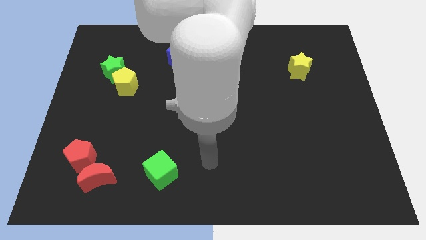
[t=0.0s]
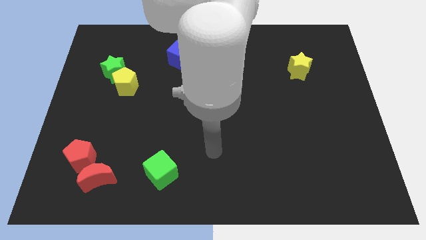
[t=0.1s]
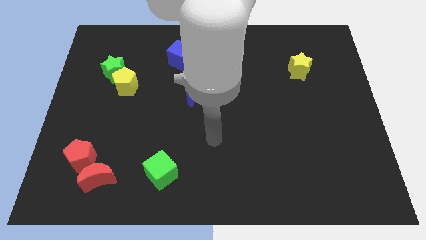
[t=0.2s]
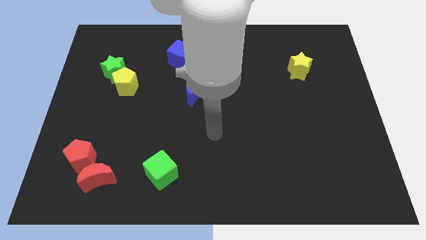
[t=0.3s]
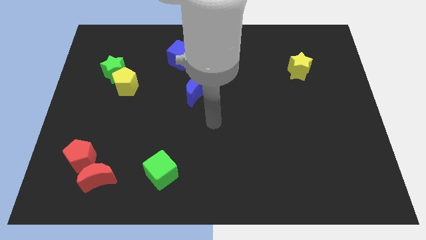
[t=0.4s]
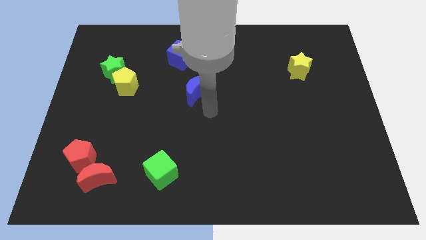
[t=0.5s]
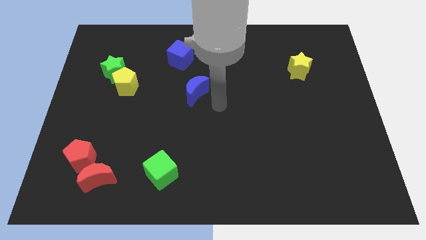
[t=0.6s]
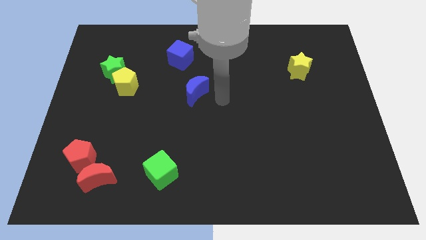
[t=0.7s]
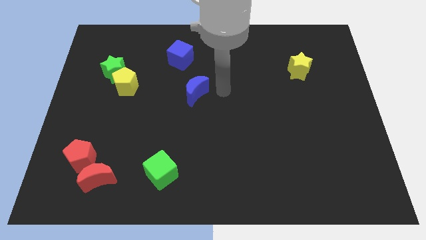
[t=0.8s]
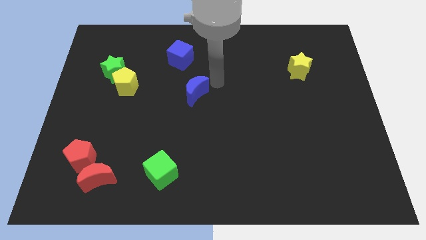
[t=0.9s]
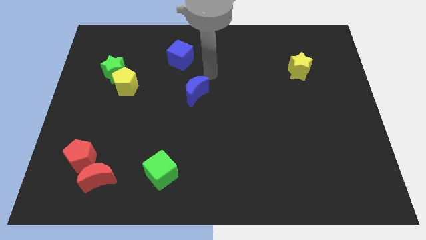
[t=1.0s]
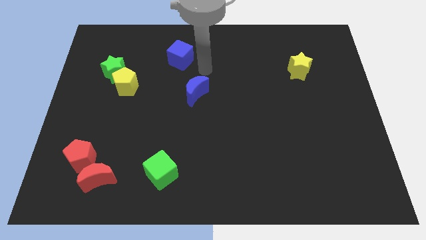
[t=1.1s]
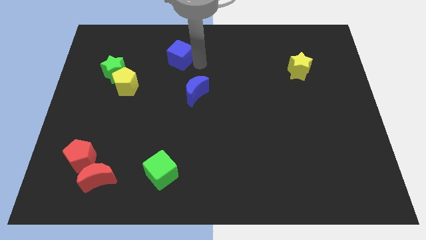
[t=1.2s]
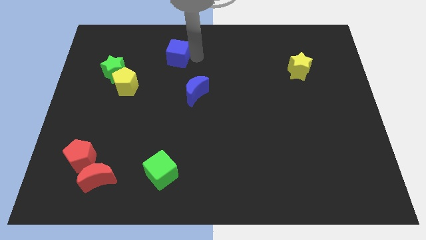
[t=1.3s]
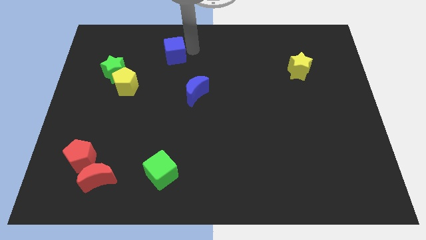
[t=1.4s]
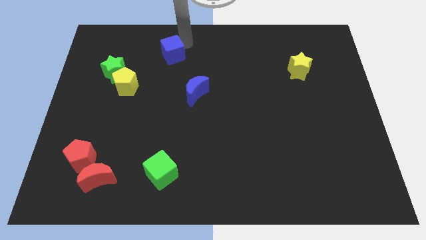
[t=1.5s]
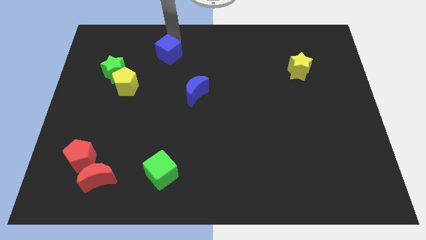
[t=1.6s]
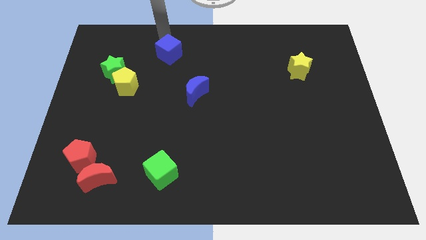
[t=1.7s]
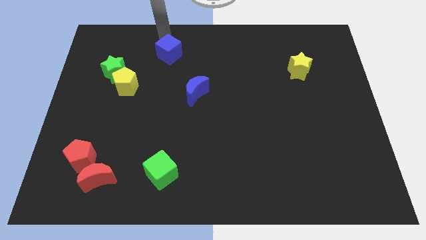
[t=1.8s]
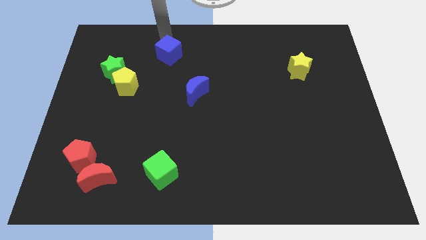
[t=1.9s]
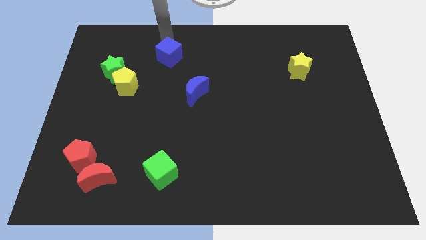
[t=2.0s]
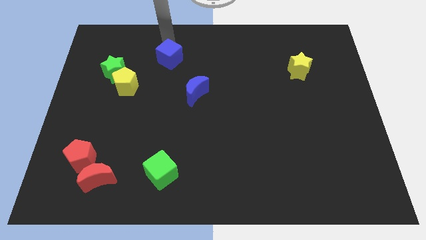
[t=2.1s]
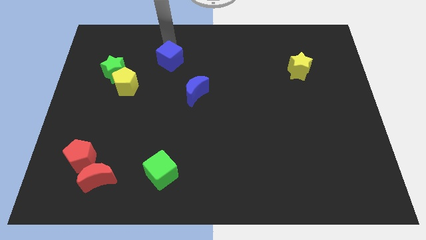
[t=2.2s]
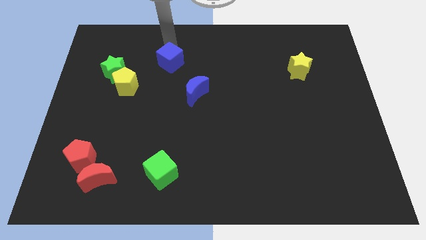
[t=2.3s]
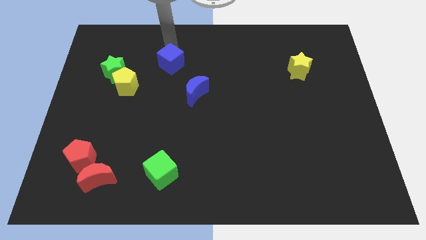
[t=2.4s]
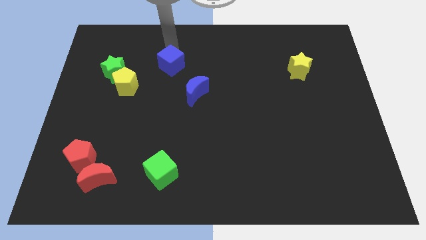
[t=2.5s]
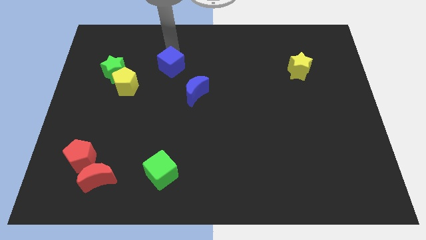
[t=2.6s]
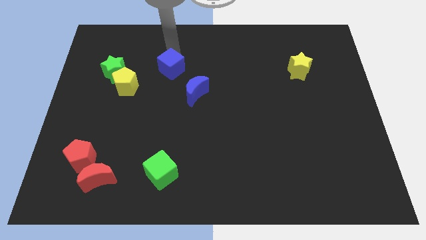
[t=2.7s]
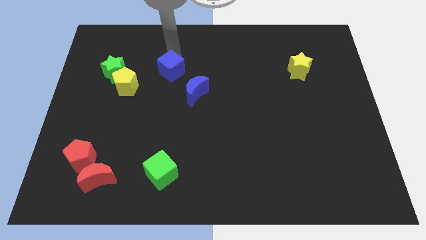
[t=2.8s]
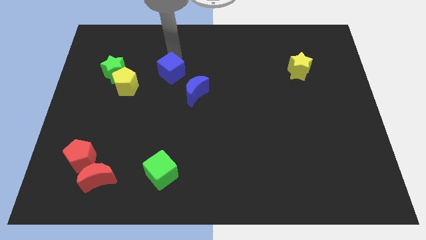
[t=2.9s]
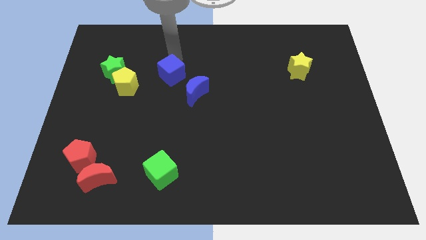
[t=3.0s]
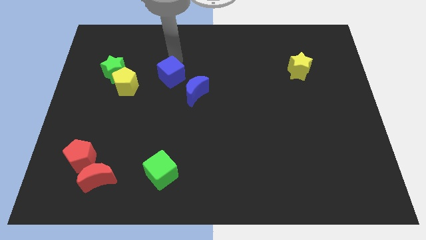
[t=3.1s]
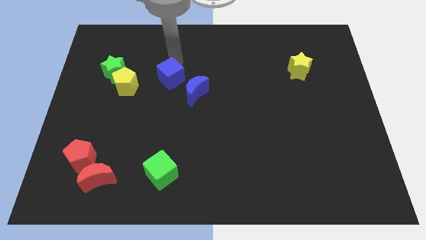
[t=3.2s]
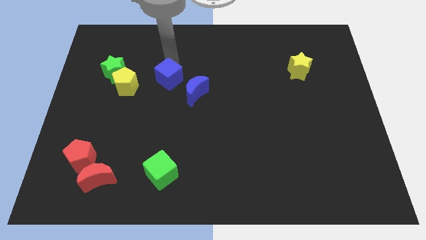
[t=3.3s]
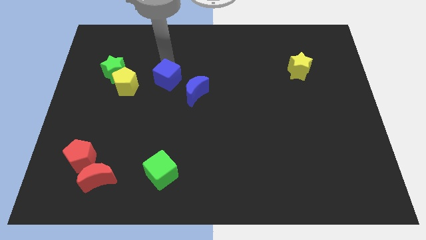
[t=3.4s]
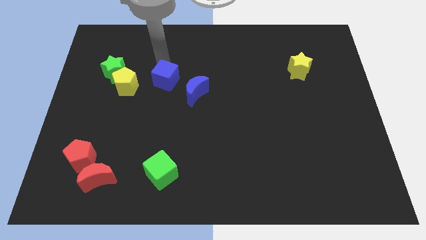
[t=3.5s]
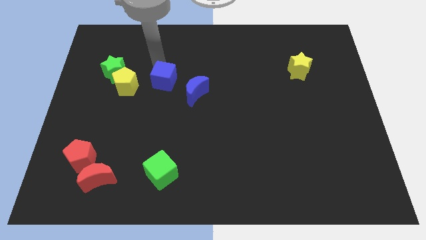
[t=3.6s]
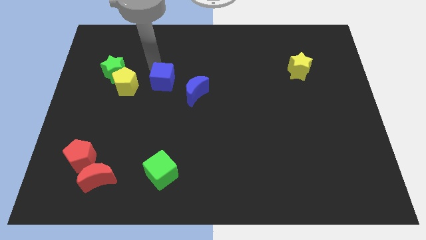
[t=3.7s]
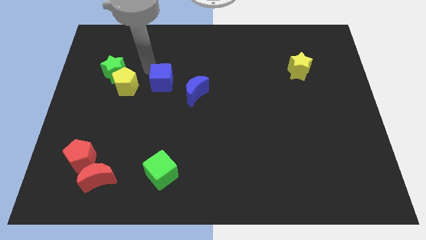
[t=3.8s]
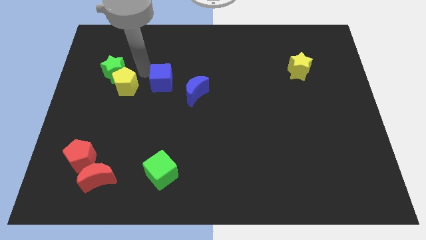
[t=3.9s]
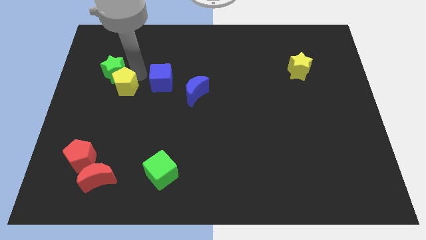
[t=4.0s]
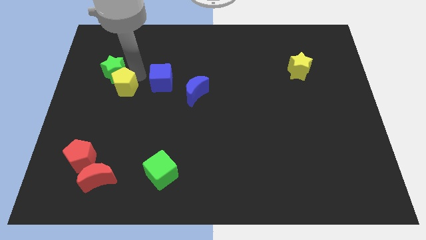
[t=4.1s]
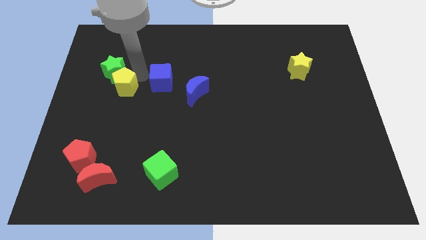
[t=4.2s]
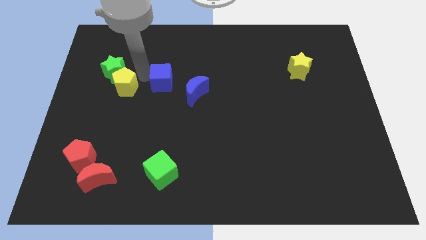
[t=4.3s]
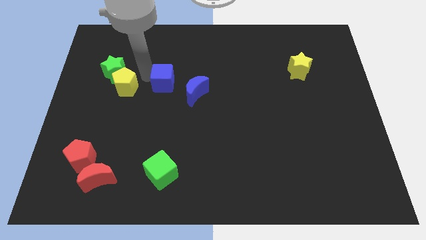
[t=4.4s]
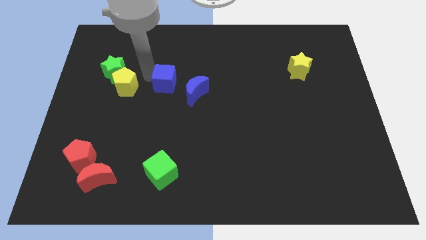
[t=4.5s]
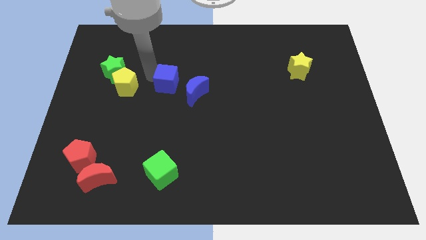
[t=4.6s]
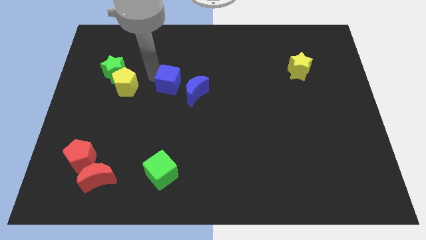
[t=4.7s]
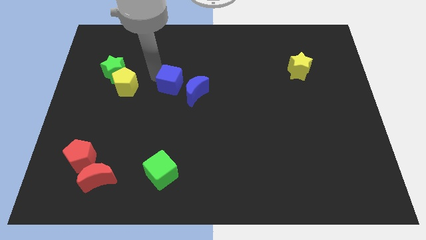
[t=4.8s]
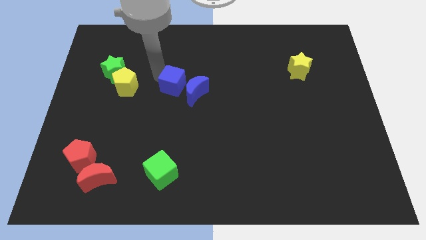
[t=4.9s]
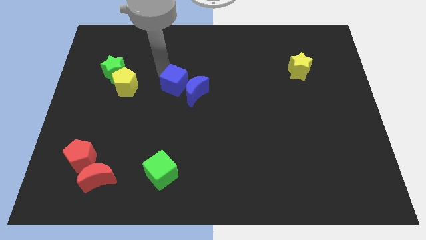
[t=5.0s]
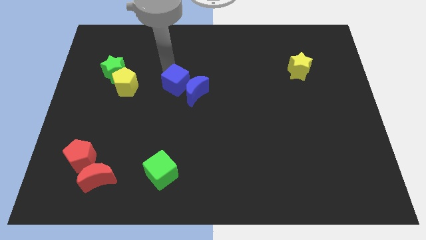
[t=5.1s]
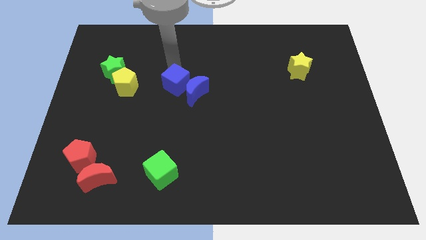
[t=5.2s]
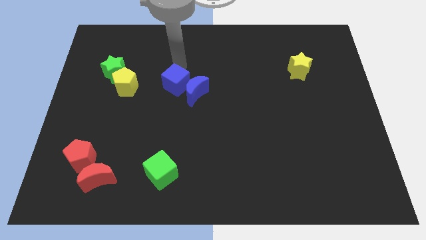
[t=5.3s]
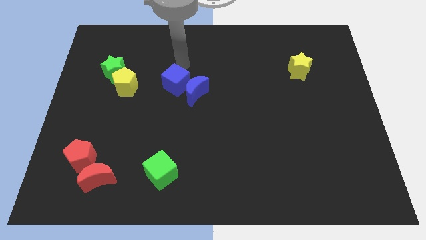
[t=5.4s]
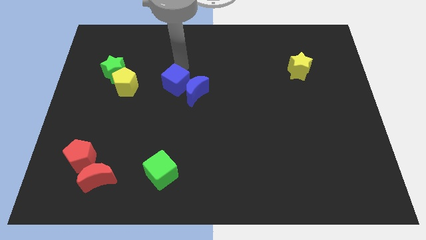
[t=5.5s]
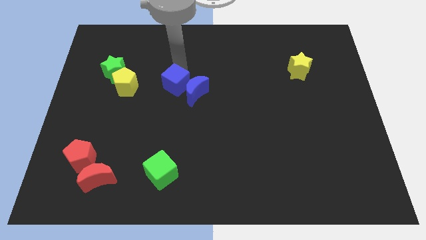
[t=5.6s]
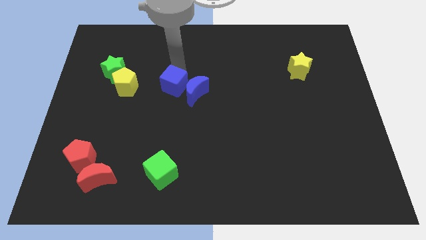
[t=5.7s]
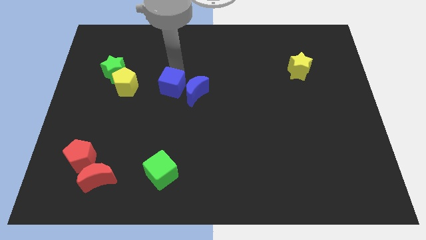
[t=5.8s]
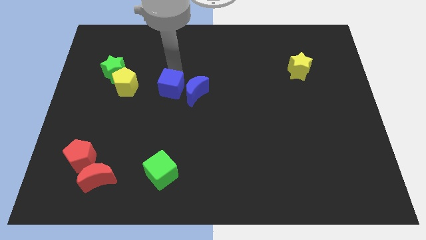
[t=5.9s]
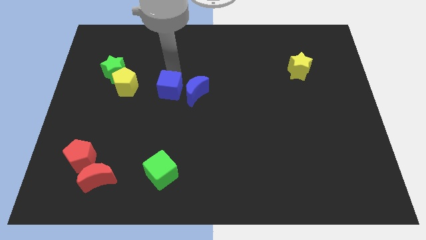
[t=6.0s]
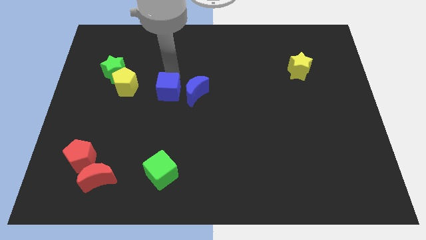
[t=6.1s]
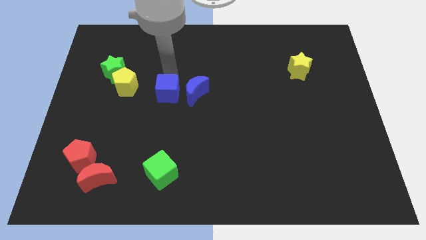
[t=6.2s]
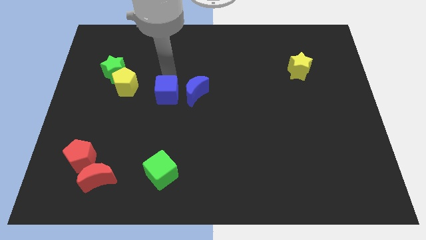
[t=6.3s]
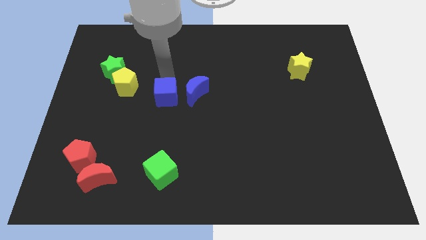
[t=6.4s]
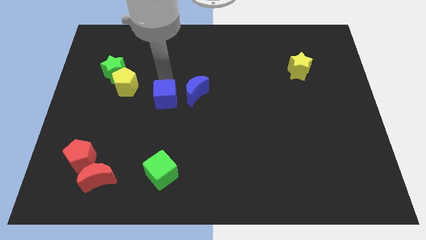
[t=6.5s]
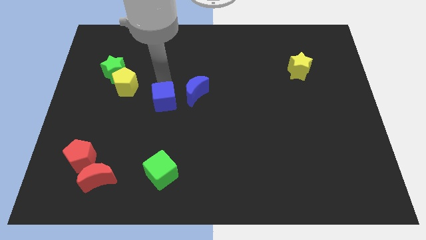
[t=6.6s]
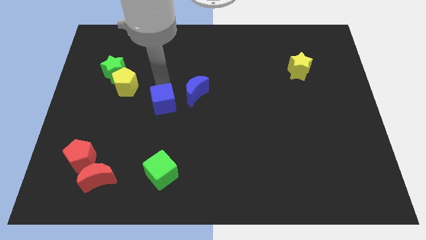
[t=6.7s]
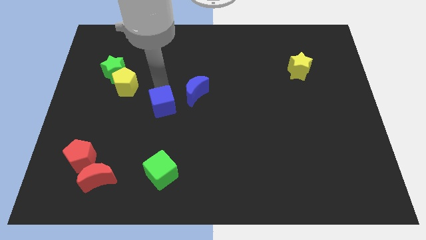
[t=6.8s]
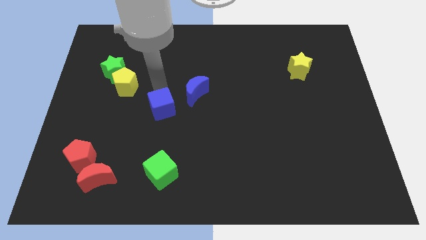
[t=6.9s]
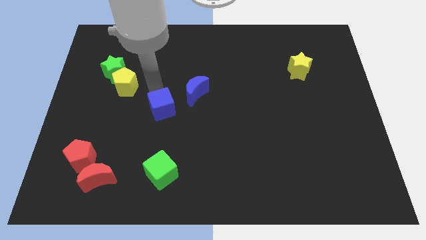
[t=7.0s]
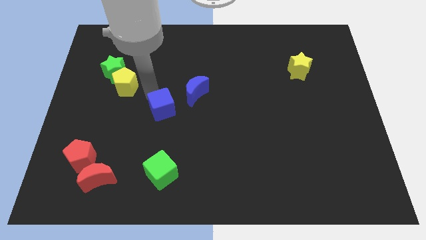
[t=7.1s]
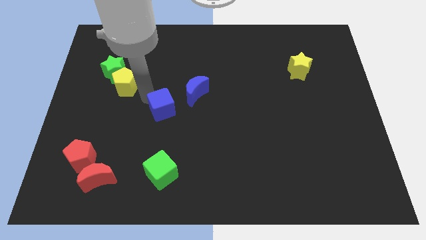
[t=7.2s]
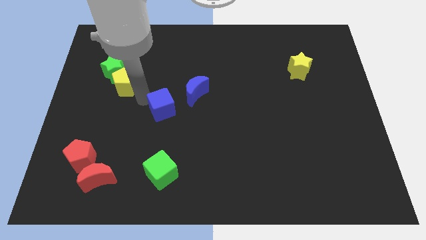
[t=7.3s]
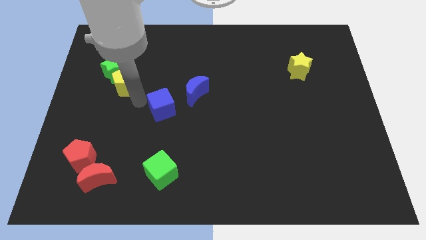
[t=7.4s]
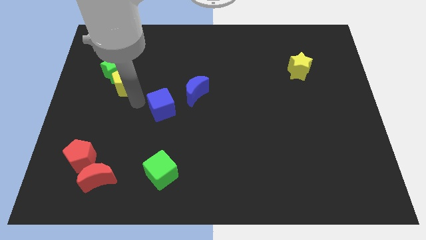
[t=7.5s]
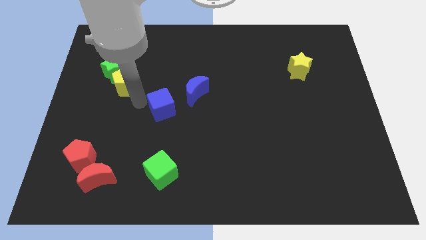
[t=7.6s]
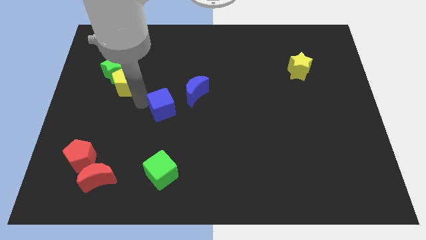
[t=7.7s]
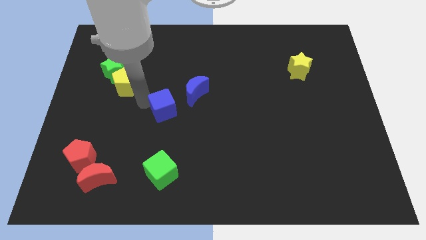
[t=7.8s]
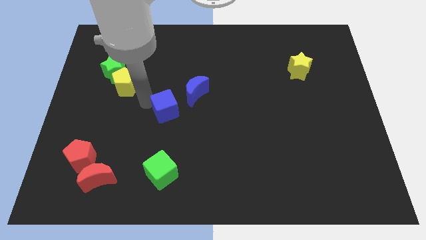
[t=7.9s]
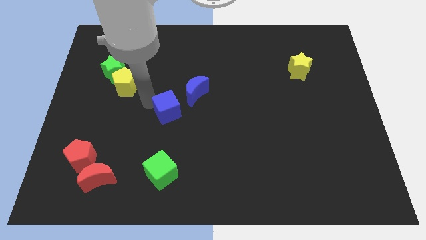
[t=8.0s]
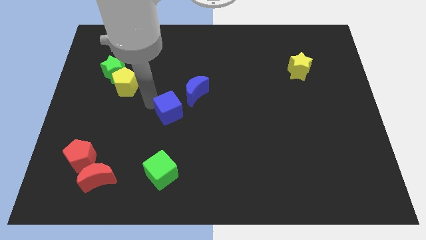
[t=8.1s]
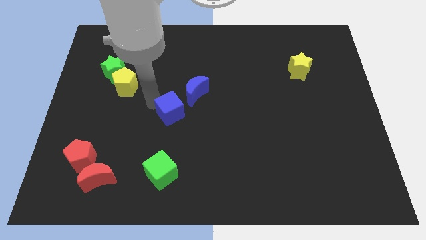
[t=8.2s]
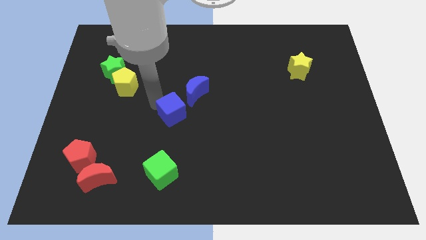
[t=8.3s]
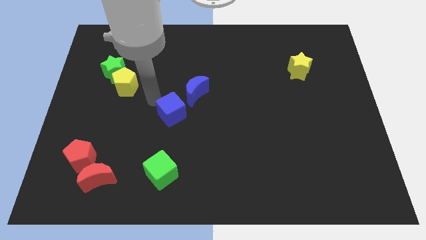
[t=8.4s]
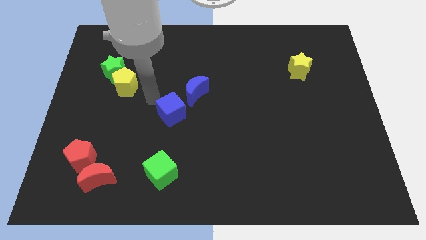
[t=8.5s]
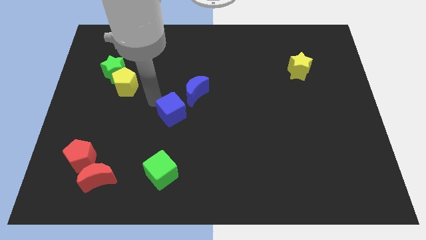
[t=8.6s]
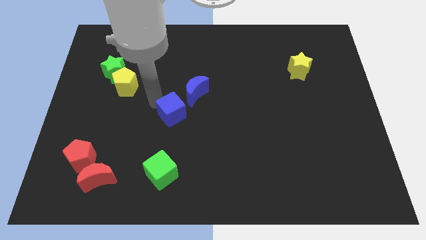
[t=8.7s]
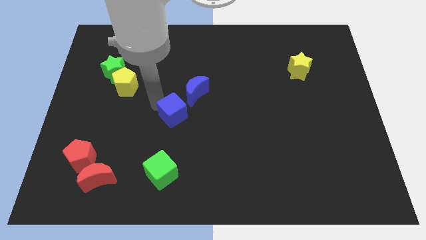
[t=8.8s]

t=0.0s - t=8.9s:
push the blue cube to the bottom side of the blue moon
